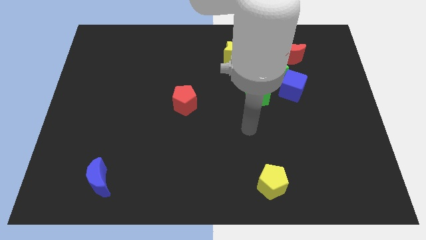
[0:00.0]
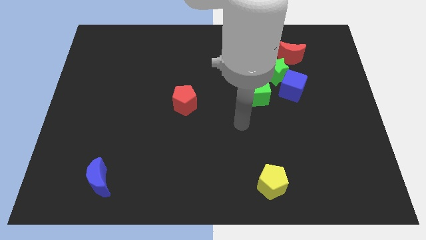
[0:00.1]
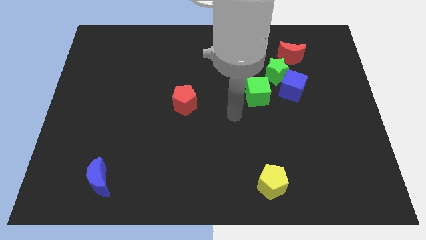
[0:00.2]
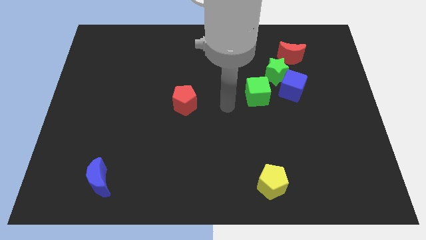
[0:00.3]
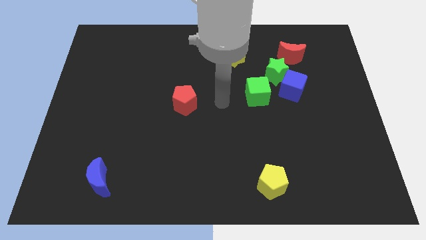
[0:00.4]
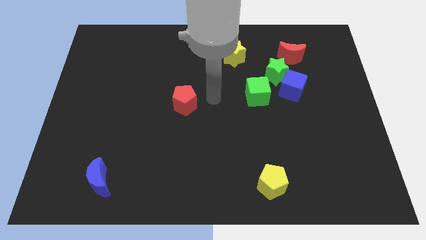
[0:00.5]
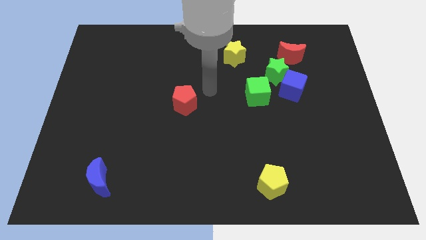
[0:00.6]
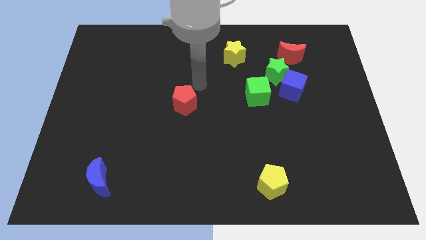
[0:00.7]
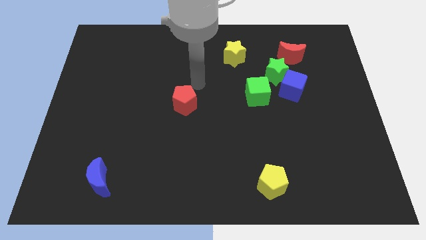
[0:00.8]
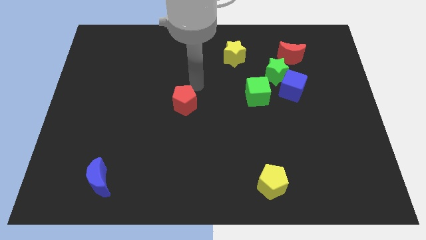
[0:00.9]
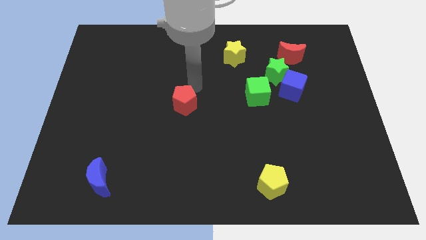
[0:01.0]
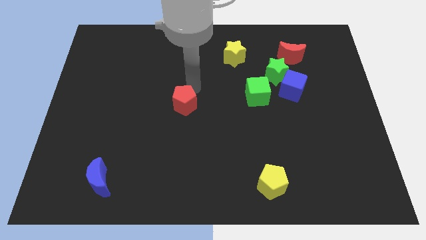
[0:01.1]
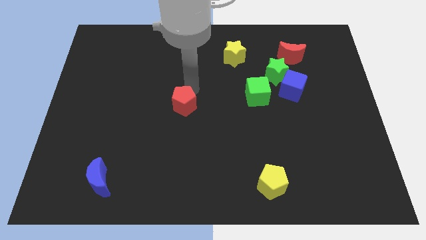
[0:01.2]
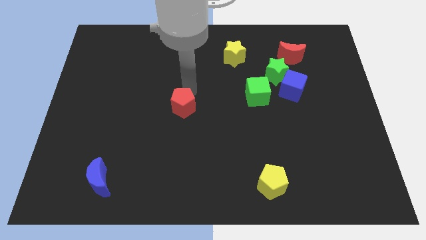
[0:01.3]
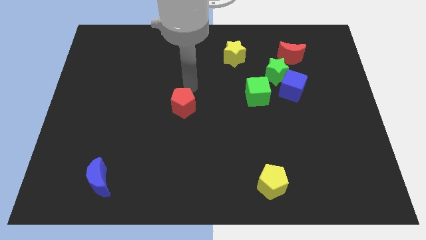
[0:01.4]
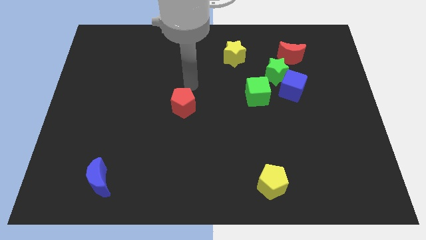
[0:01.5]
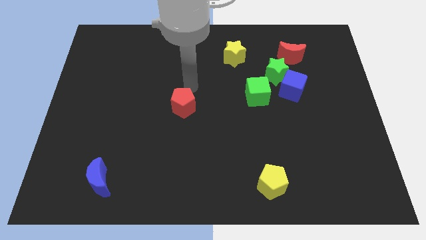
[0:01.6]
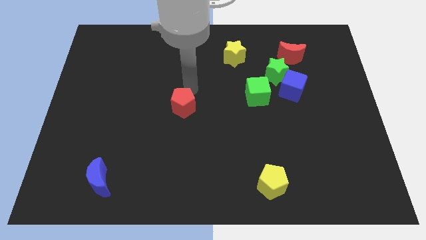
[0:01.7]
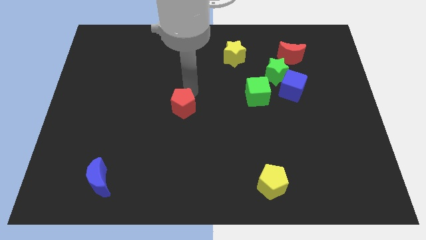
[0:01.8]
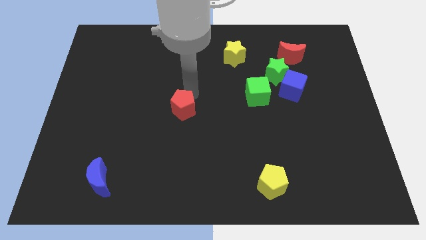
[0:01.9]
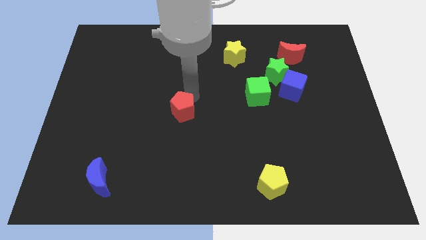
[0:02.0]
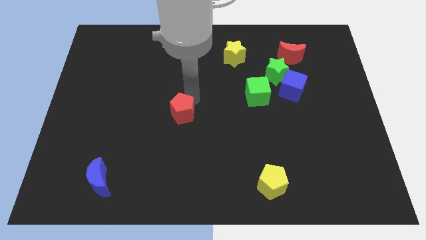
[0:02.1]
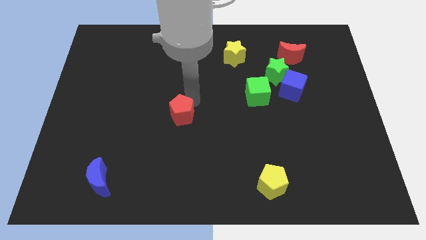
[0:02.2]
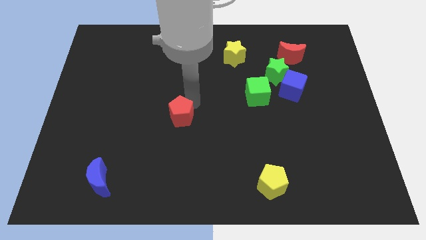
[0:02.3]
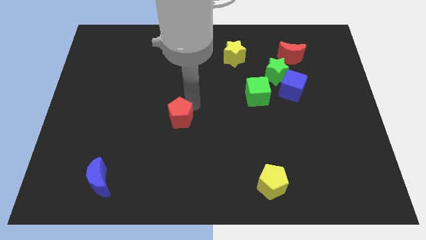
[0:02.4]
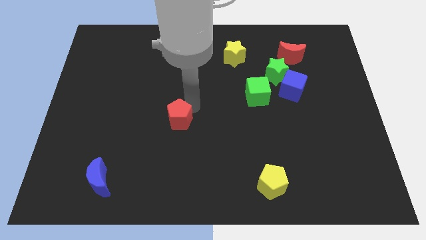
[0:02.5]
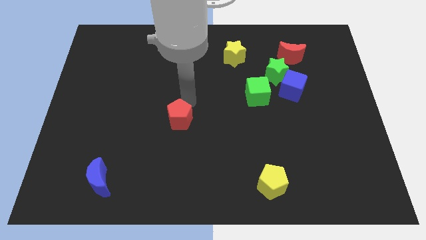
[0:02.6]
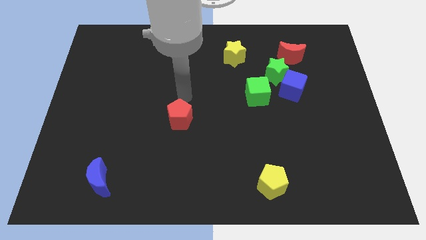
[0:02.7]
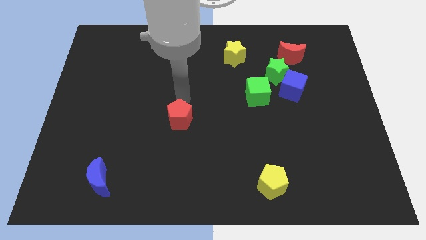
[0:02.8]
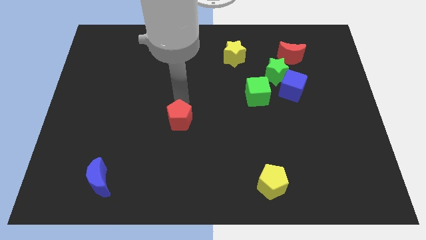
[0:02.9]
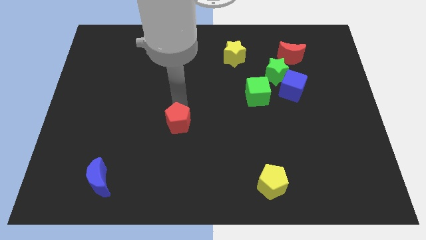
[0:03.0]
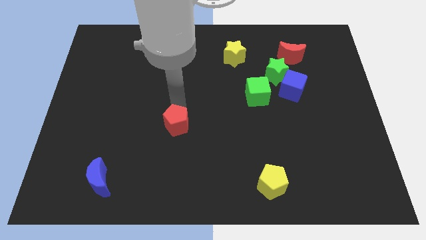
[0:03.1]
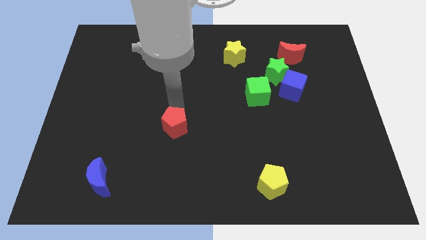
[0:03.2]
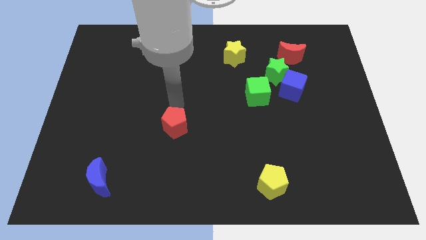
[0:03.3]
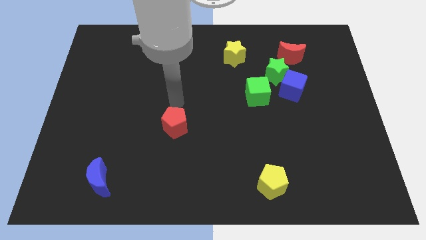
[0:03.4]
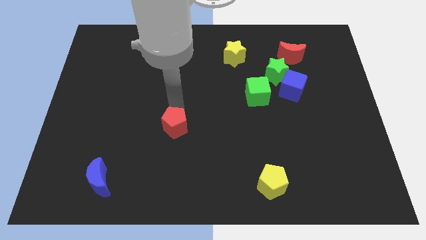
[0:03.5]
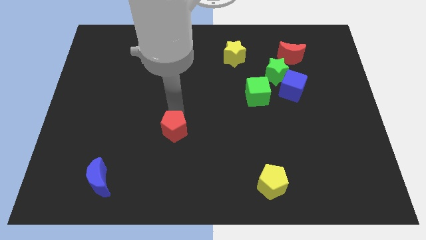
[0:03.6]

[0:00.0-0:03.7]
move the red pentagon downwards a little bit

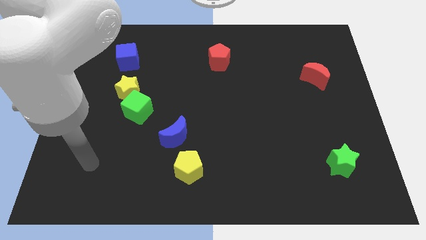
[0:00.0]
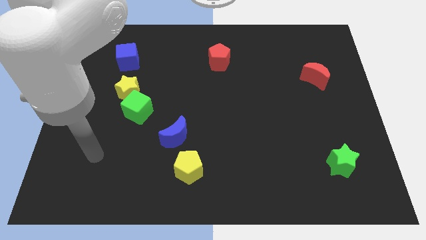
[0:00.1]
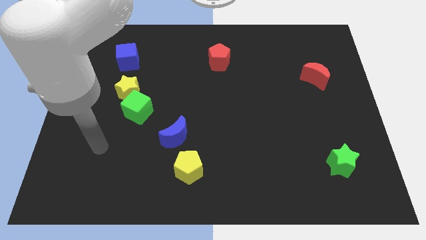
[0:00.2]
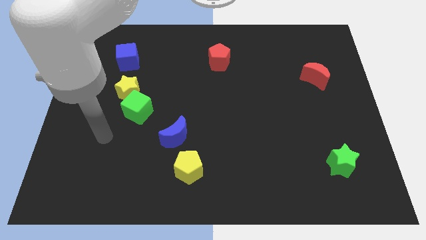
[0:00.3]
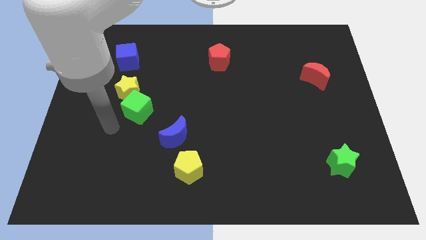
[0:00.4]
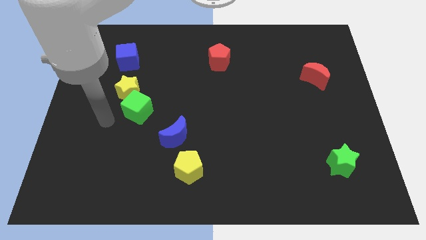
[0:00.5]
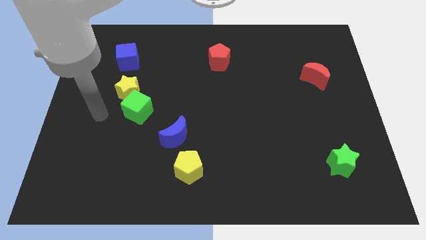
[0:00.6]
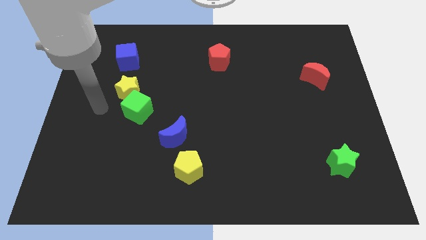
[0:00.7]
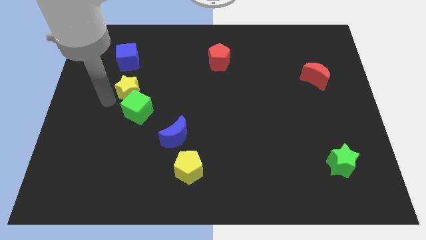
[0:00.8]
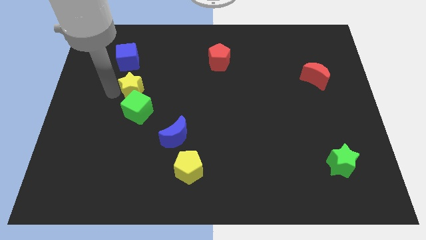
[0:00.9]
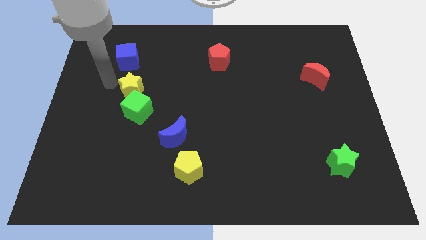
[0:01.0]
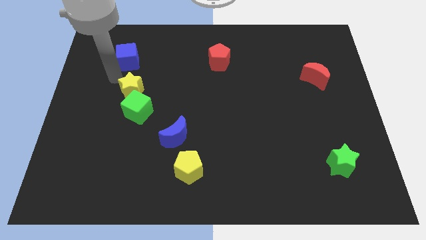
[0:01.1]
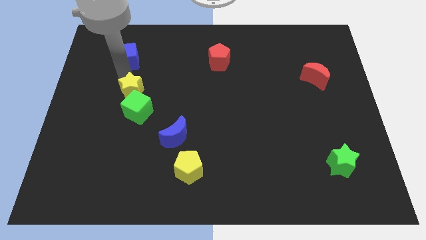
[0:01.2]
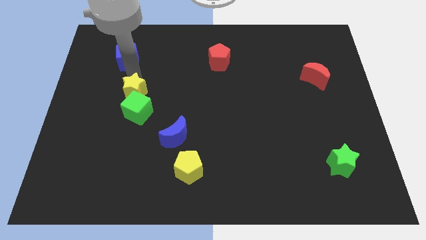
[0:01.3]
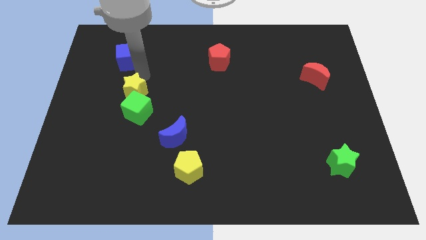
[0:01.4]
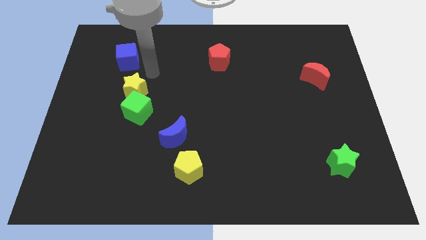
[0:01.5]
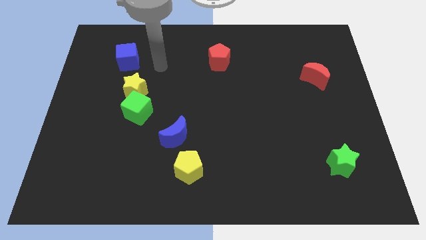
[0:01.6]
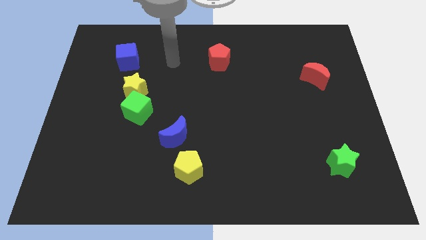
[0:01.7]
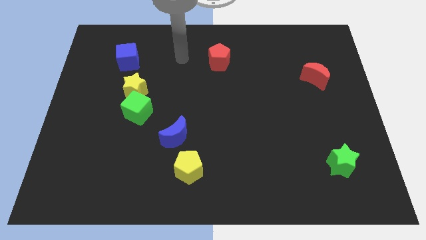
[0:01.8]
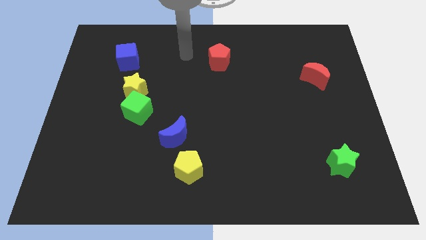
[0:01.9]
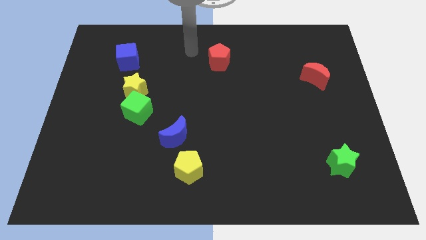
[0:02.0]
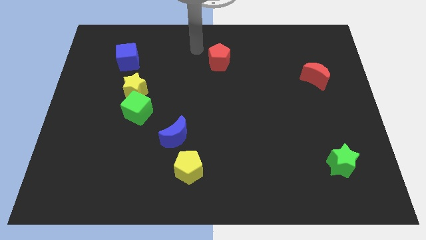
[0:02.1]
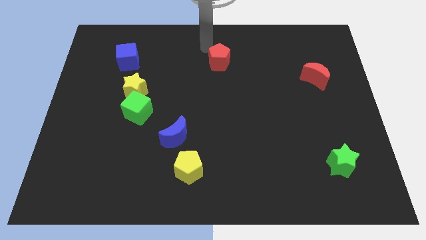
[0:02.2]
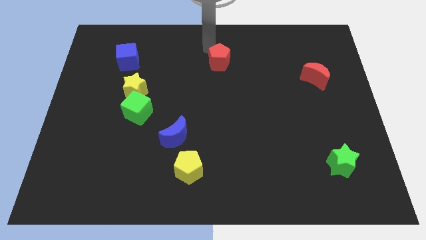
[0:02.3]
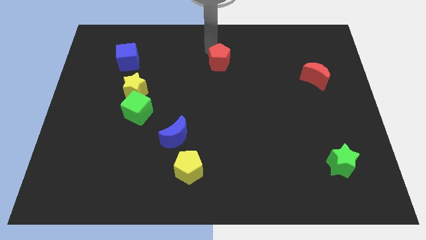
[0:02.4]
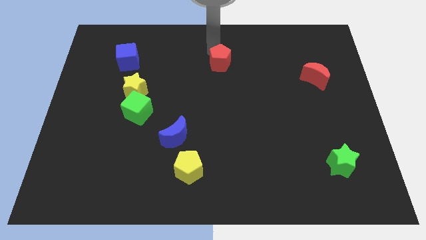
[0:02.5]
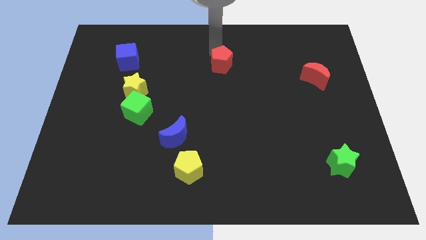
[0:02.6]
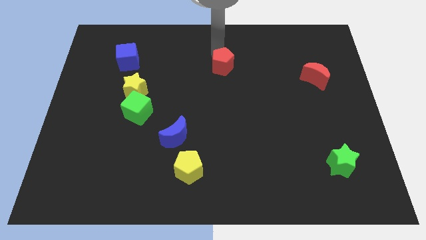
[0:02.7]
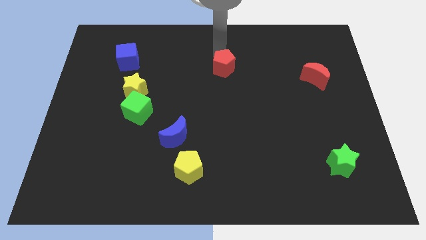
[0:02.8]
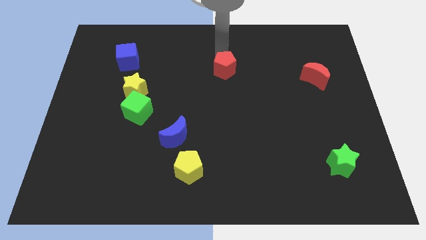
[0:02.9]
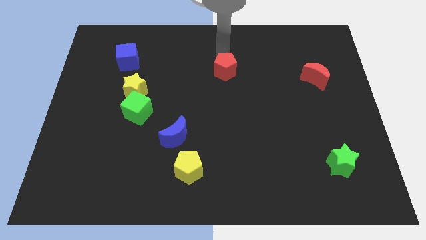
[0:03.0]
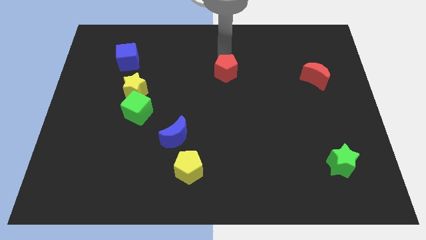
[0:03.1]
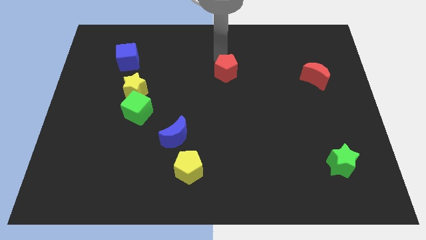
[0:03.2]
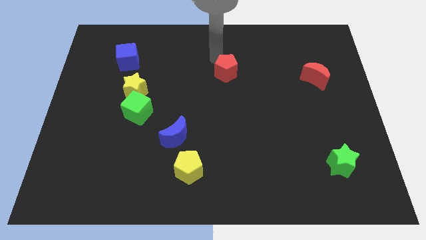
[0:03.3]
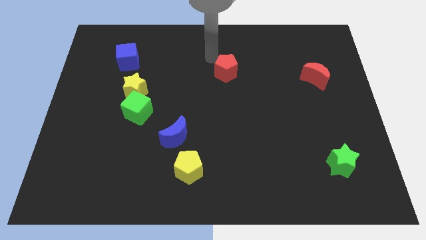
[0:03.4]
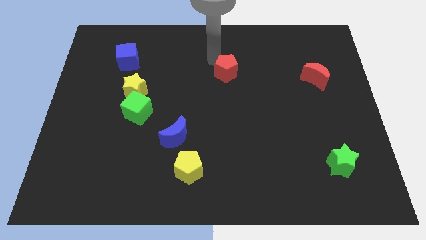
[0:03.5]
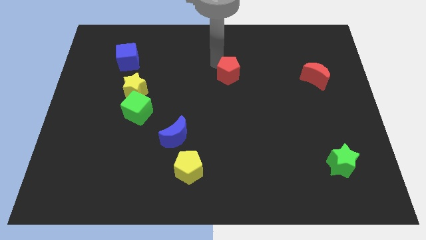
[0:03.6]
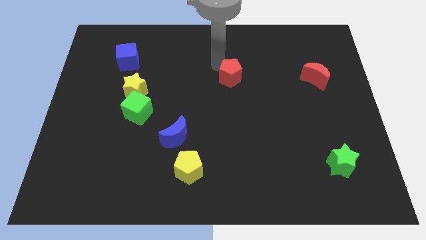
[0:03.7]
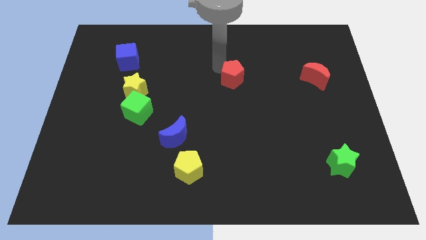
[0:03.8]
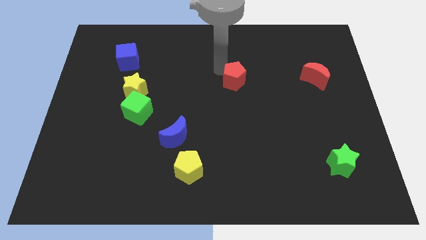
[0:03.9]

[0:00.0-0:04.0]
slightly push the red pentagon down and to the right
